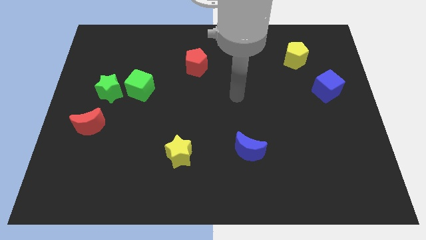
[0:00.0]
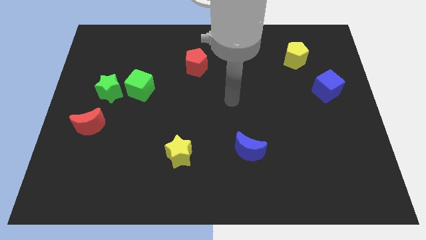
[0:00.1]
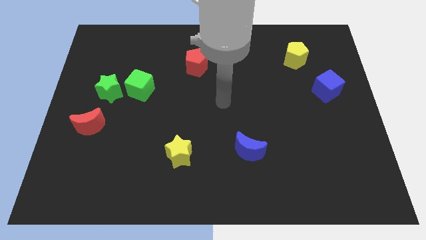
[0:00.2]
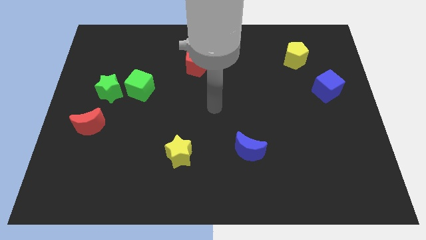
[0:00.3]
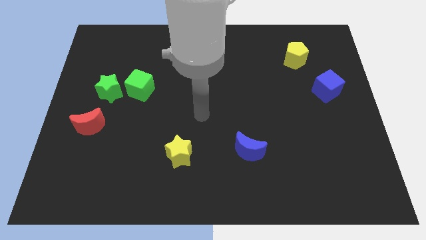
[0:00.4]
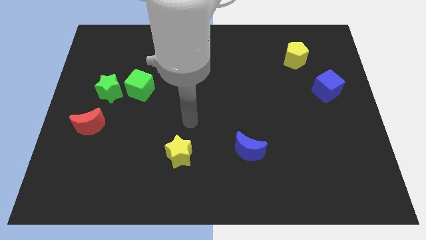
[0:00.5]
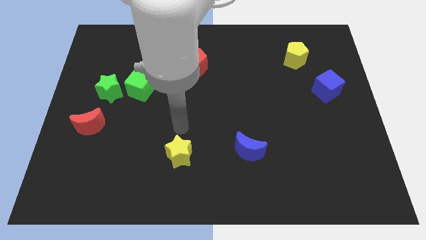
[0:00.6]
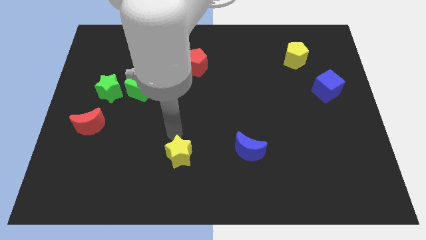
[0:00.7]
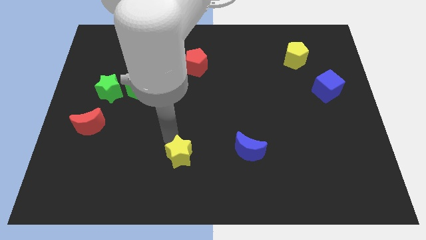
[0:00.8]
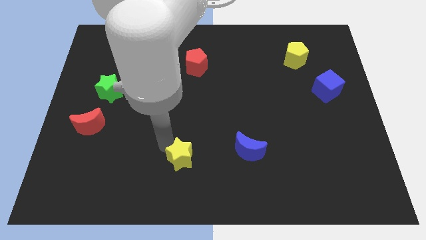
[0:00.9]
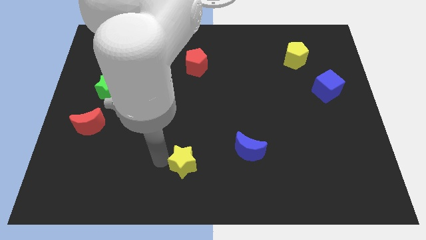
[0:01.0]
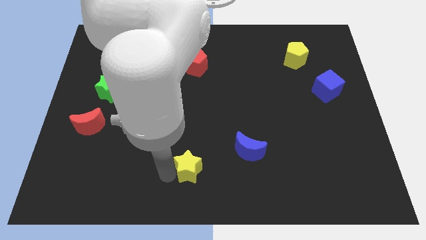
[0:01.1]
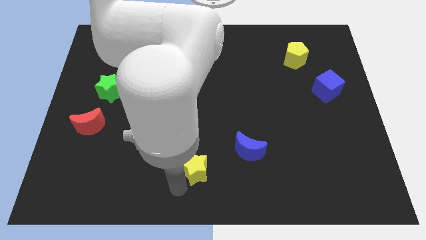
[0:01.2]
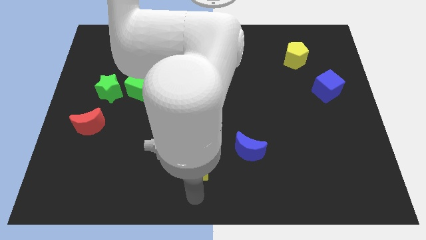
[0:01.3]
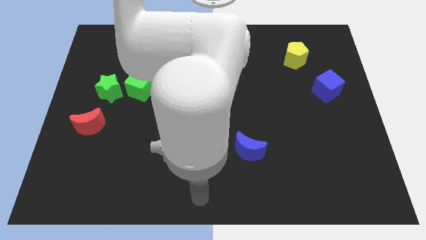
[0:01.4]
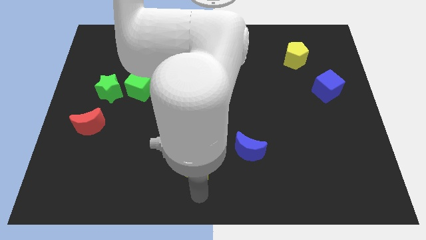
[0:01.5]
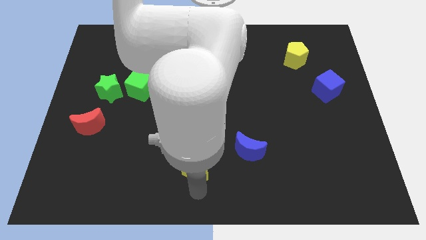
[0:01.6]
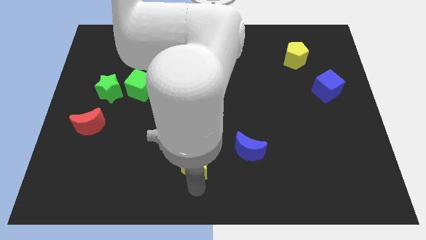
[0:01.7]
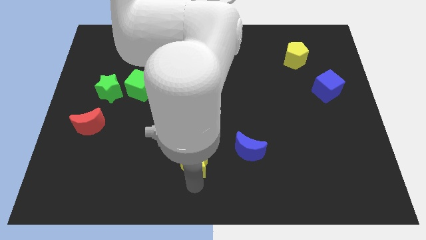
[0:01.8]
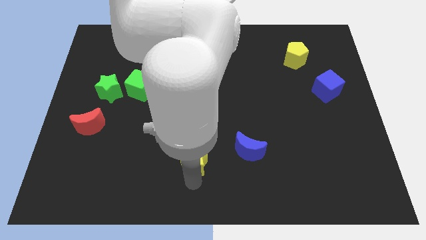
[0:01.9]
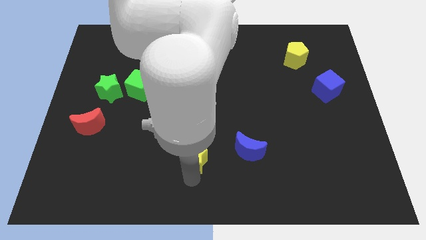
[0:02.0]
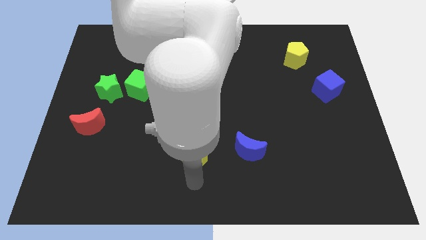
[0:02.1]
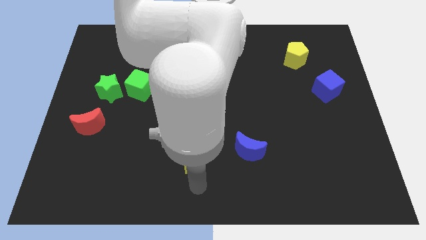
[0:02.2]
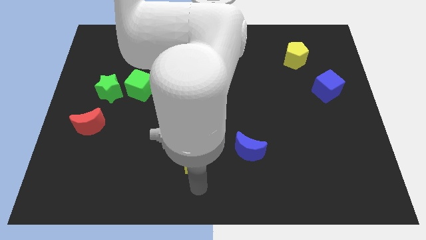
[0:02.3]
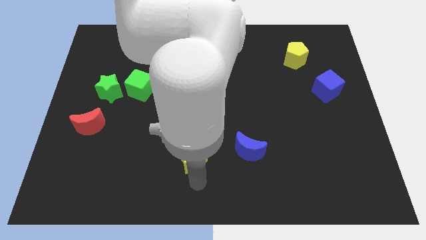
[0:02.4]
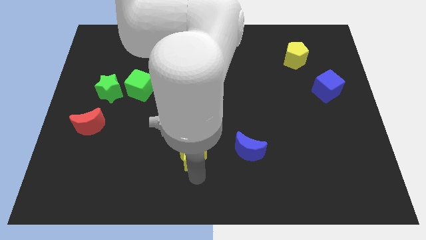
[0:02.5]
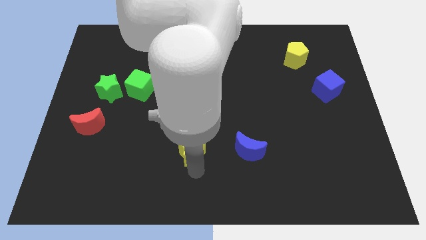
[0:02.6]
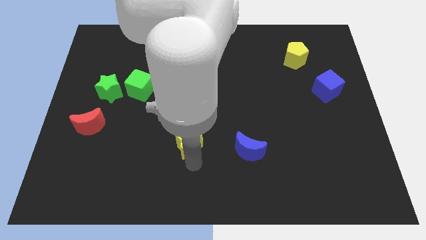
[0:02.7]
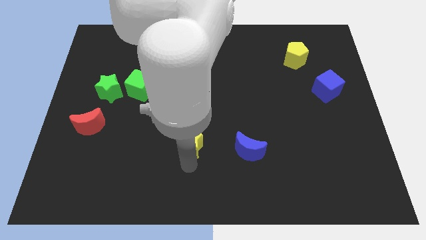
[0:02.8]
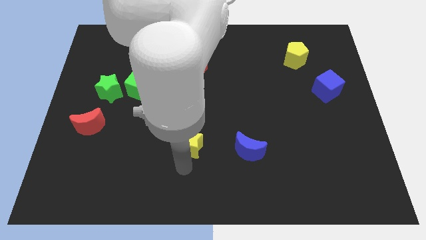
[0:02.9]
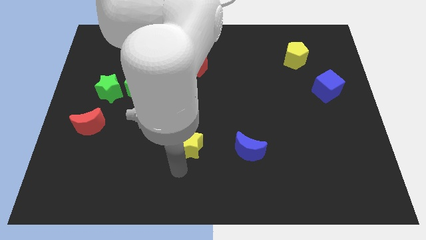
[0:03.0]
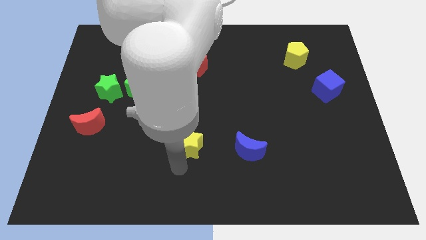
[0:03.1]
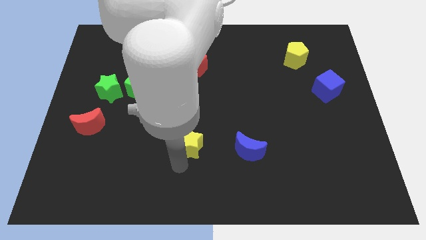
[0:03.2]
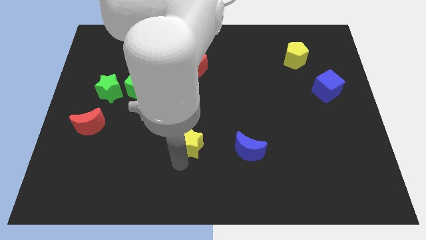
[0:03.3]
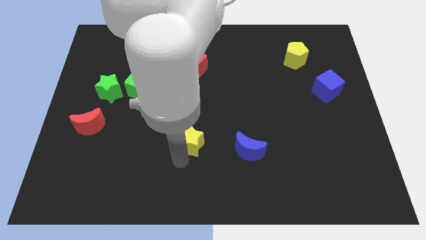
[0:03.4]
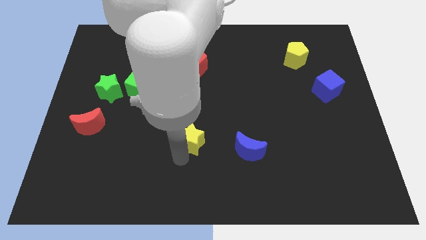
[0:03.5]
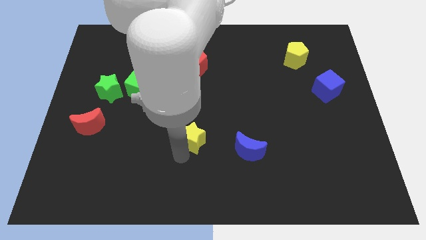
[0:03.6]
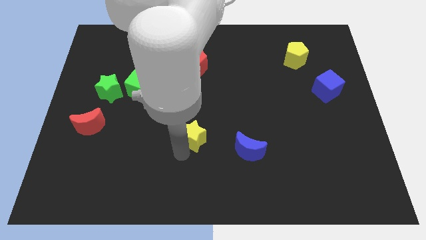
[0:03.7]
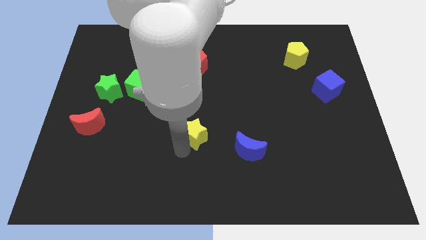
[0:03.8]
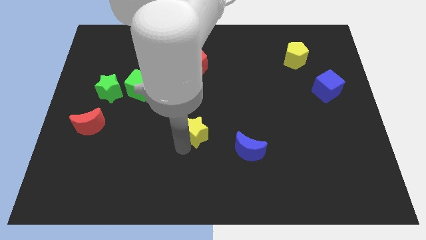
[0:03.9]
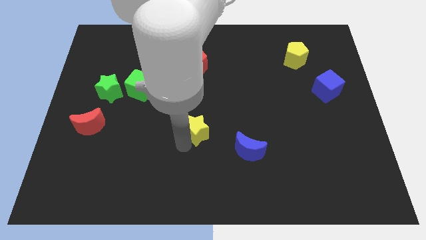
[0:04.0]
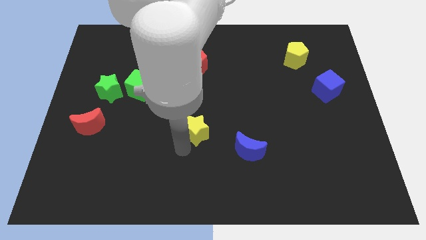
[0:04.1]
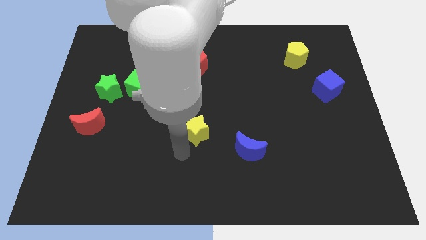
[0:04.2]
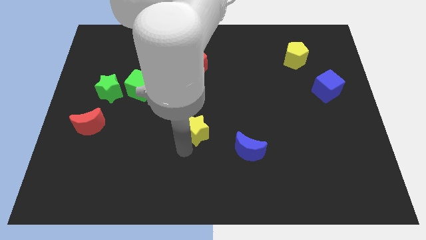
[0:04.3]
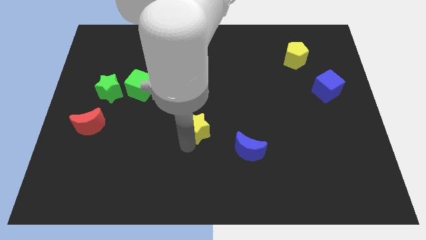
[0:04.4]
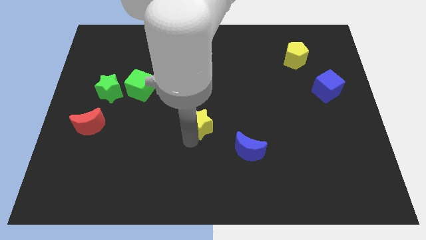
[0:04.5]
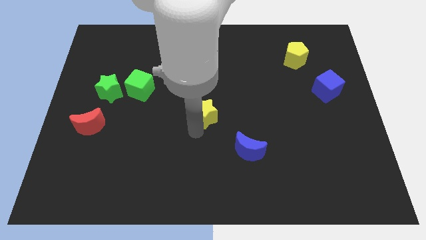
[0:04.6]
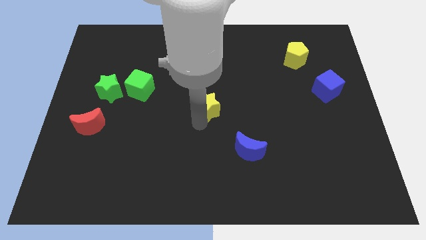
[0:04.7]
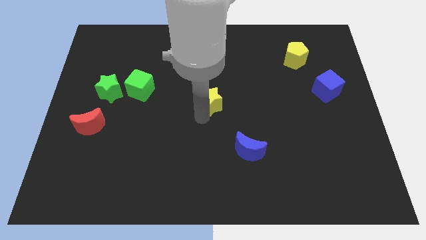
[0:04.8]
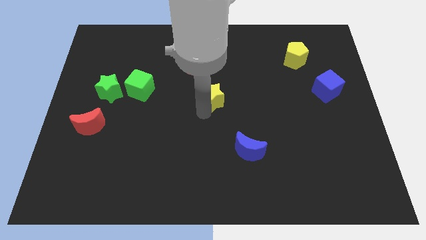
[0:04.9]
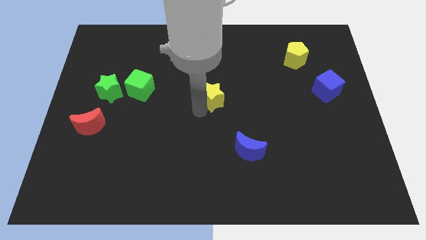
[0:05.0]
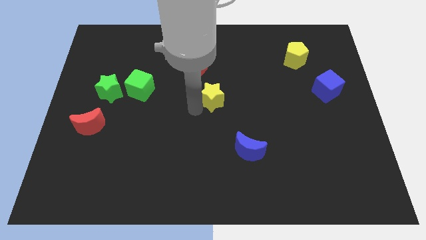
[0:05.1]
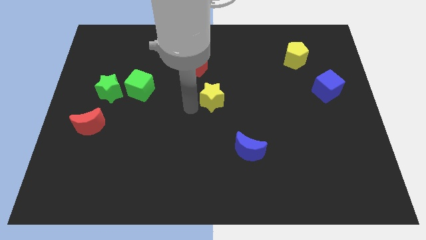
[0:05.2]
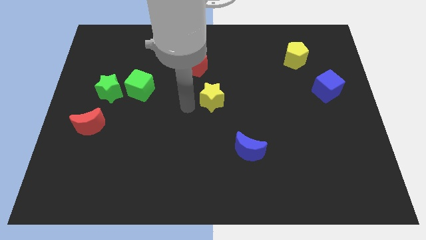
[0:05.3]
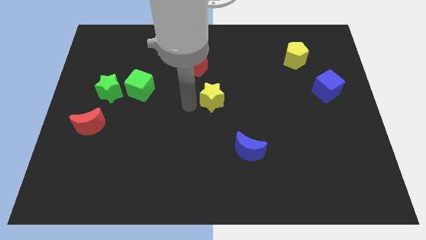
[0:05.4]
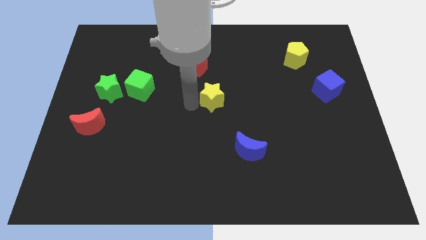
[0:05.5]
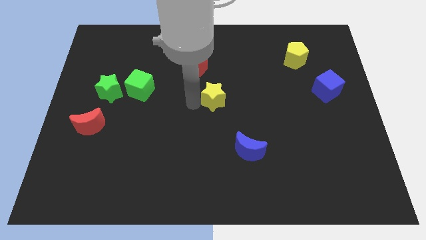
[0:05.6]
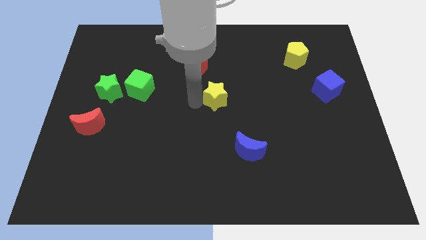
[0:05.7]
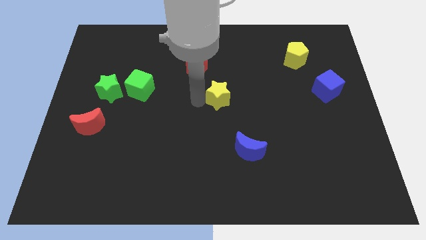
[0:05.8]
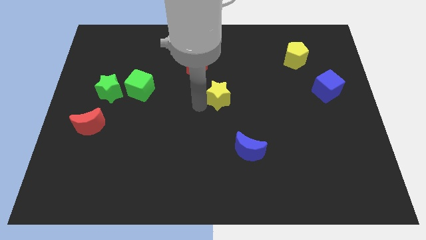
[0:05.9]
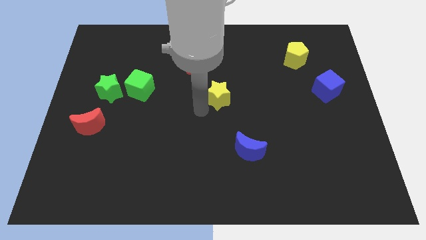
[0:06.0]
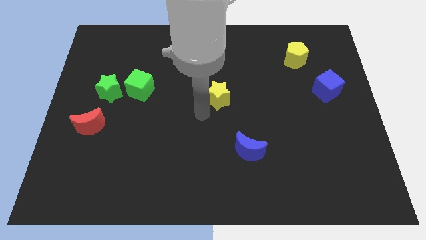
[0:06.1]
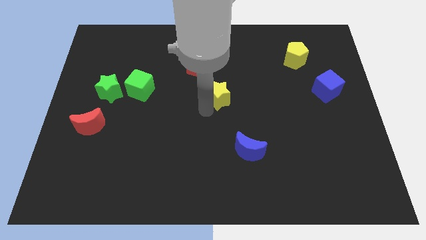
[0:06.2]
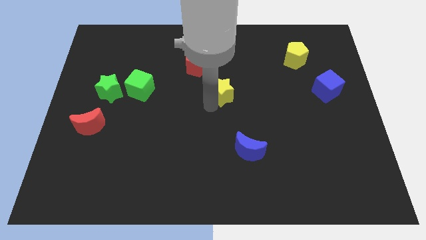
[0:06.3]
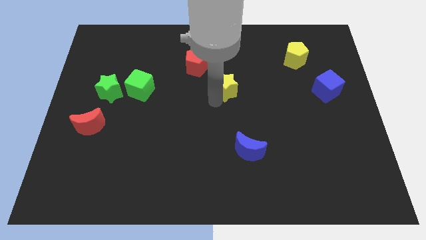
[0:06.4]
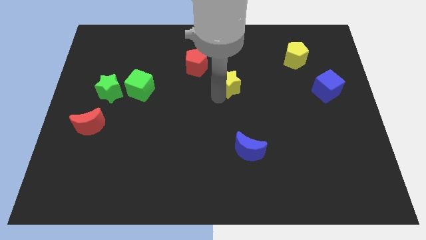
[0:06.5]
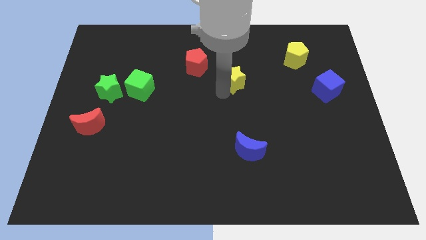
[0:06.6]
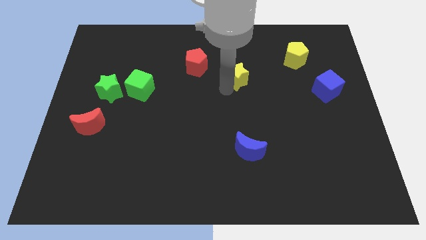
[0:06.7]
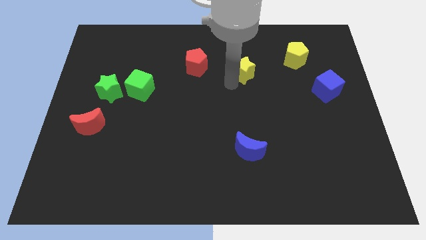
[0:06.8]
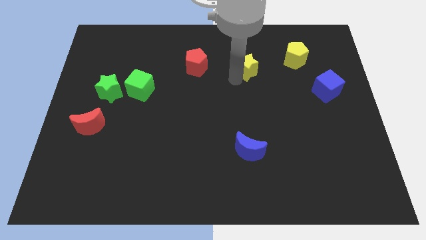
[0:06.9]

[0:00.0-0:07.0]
slide the yellow star to the left of the yellow pentagon

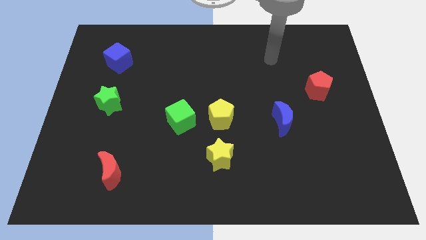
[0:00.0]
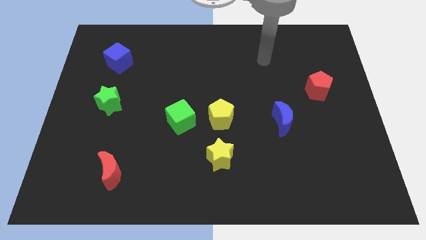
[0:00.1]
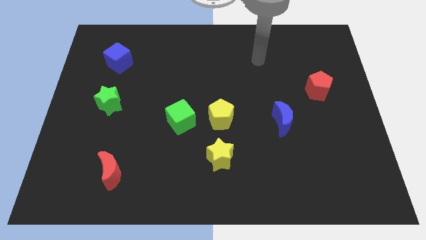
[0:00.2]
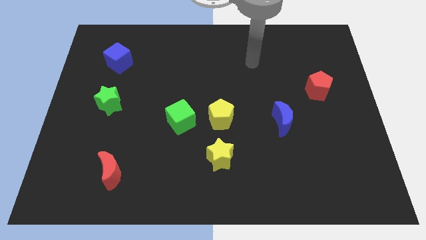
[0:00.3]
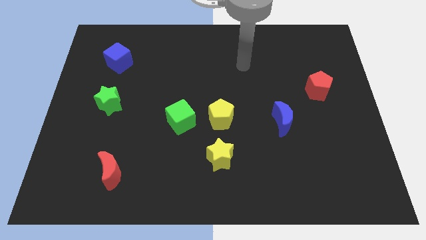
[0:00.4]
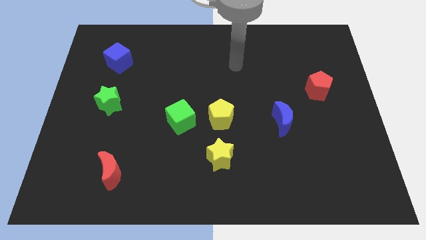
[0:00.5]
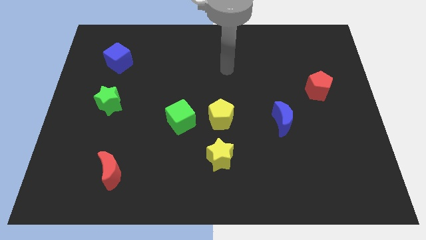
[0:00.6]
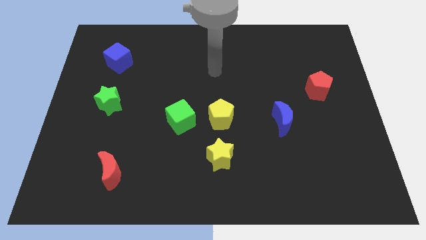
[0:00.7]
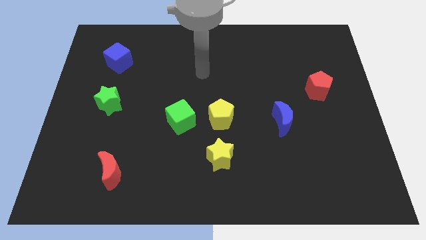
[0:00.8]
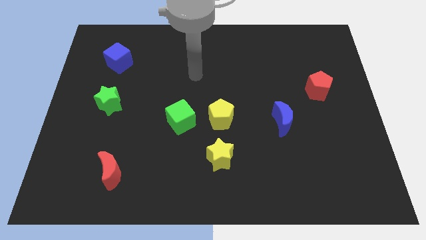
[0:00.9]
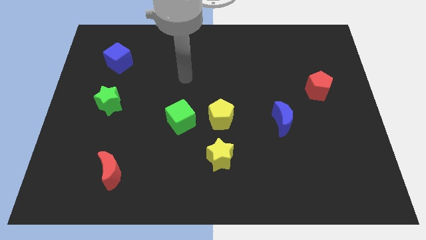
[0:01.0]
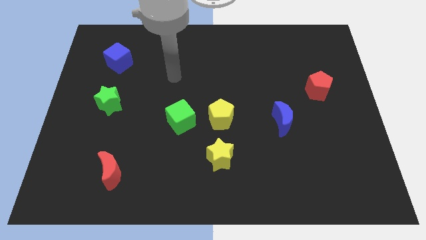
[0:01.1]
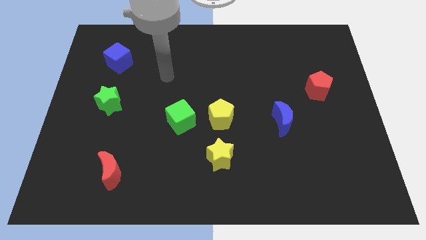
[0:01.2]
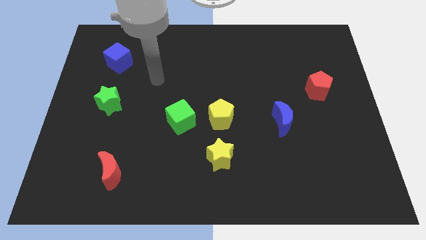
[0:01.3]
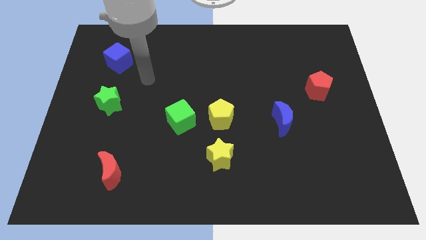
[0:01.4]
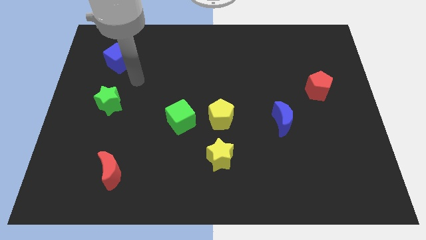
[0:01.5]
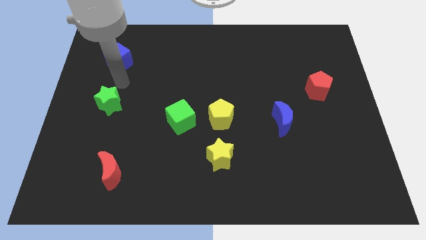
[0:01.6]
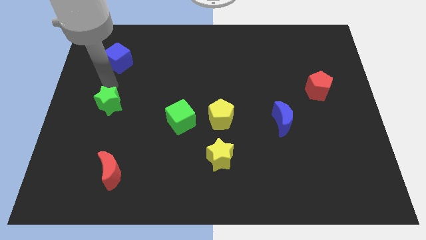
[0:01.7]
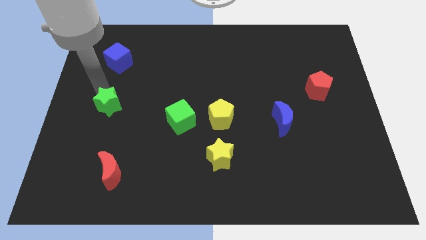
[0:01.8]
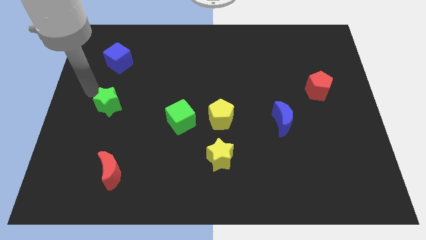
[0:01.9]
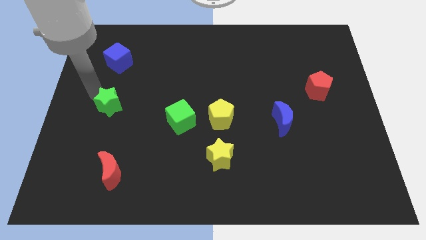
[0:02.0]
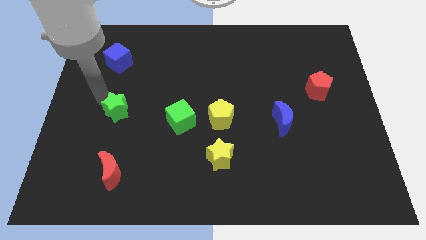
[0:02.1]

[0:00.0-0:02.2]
push the green star left of the green cube
